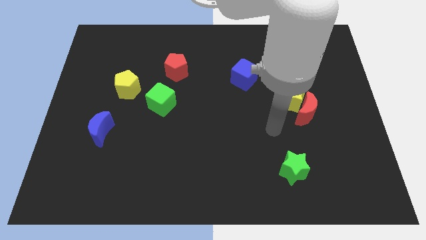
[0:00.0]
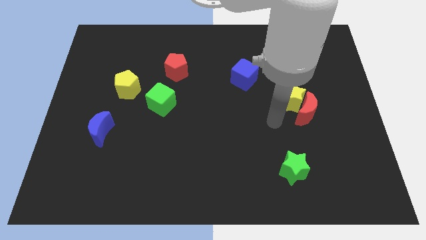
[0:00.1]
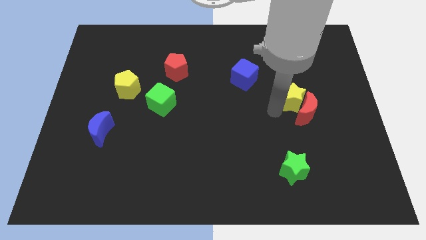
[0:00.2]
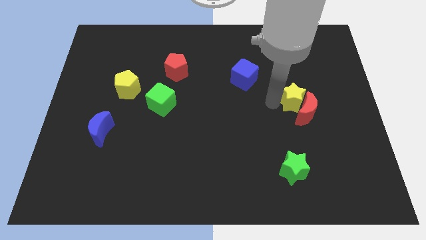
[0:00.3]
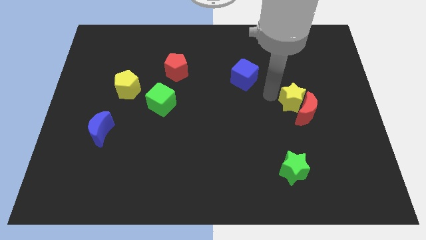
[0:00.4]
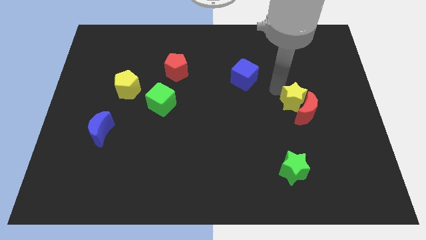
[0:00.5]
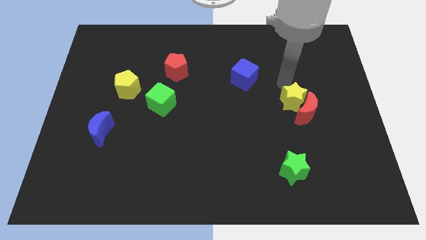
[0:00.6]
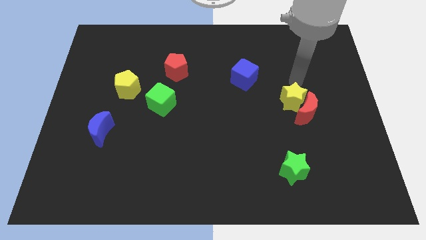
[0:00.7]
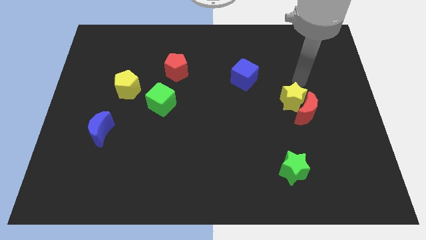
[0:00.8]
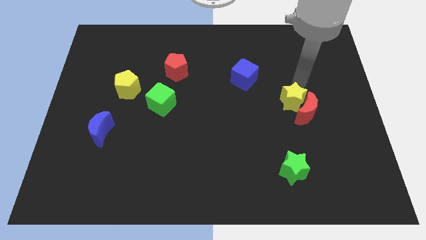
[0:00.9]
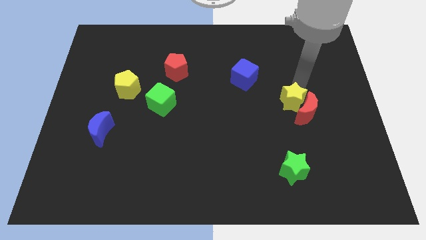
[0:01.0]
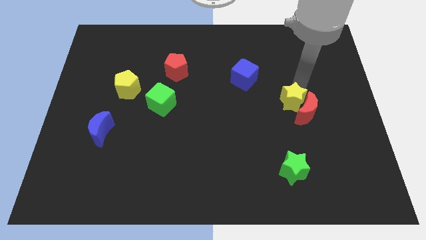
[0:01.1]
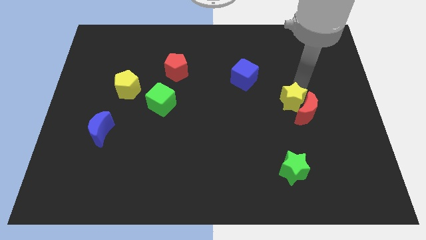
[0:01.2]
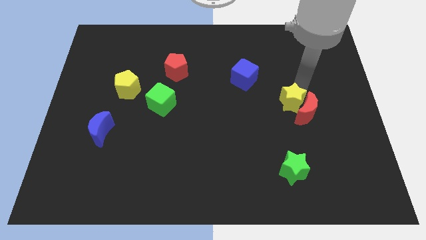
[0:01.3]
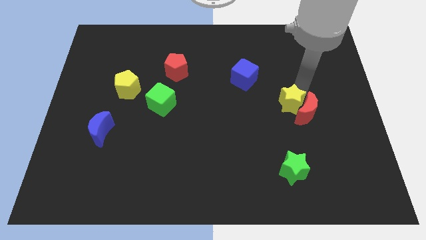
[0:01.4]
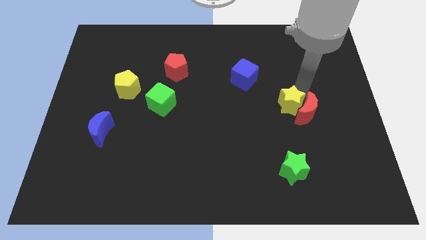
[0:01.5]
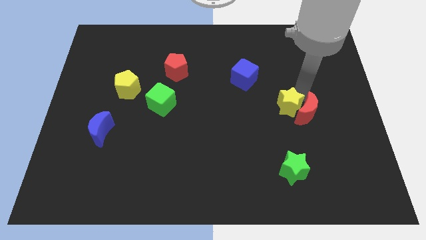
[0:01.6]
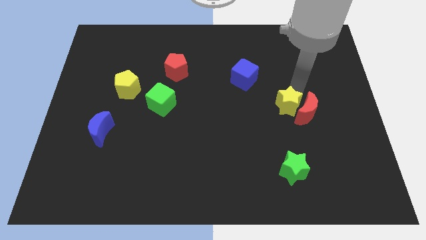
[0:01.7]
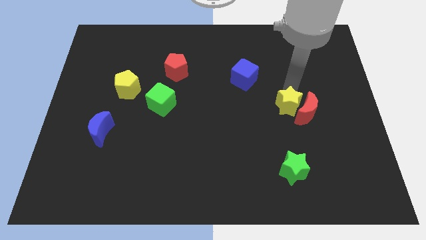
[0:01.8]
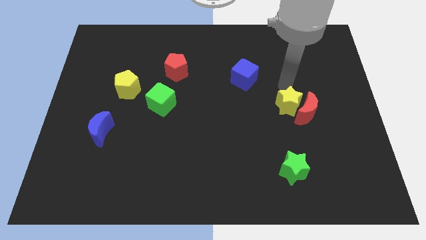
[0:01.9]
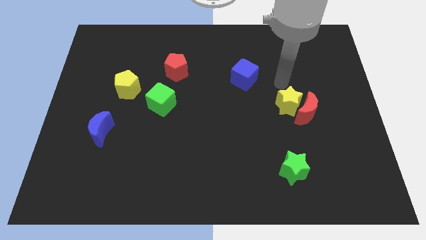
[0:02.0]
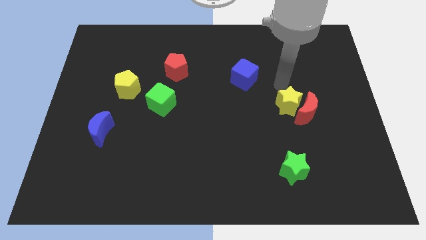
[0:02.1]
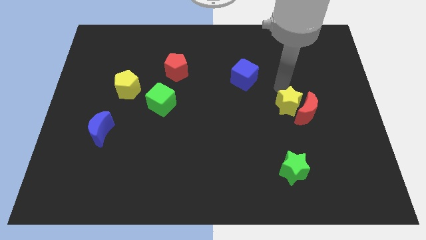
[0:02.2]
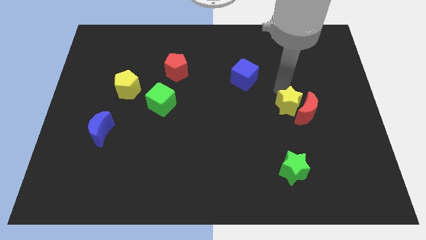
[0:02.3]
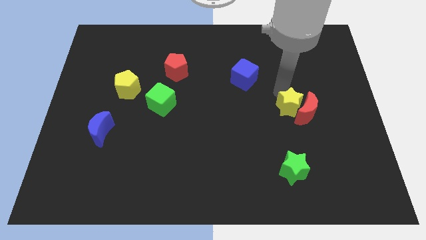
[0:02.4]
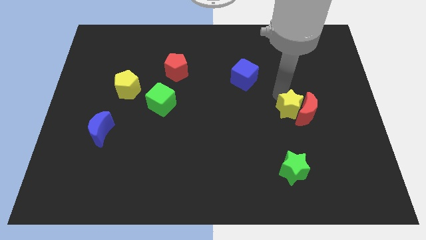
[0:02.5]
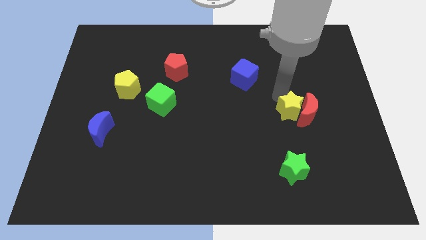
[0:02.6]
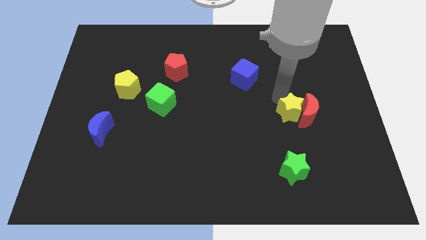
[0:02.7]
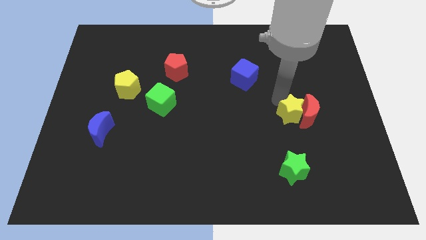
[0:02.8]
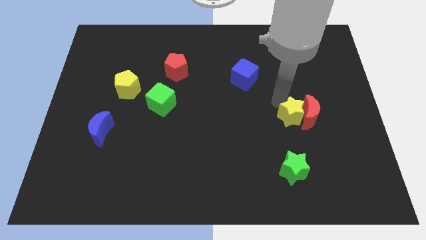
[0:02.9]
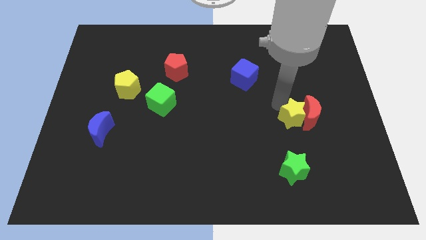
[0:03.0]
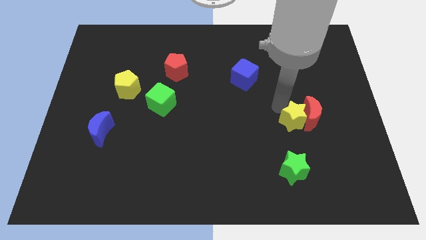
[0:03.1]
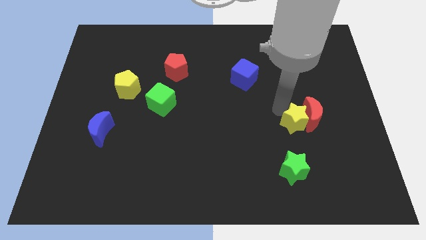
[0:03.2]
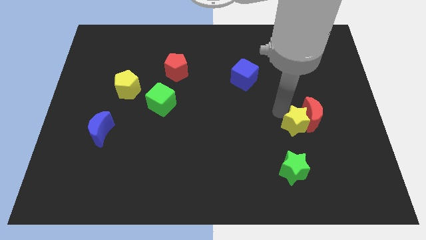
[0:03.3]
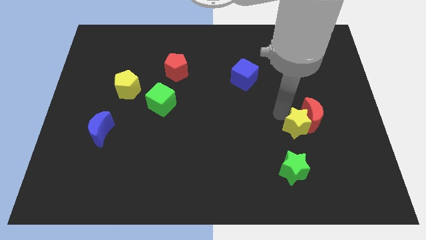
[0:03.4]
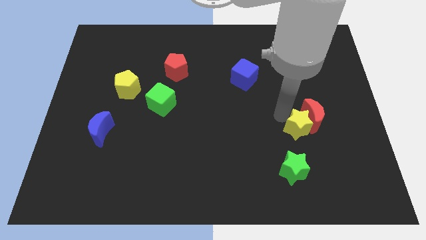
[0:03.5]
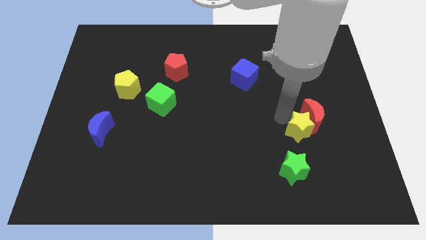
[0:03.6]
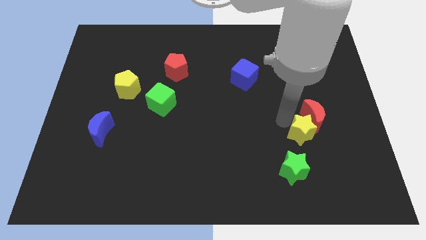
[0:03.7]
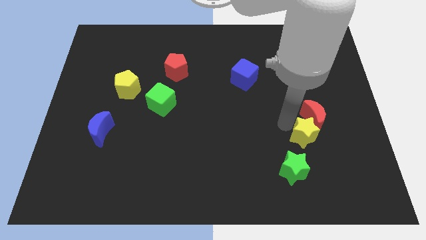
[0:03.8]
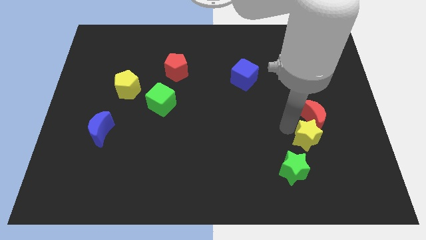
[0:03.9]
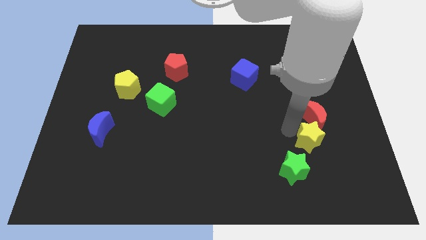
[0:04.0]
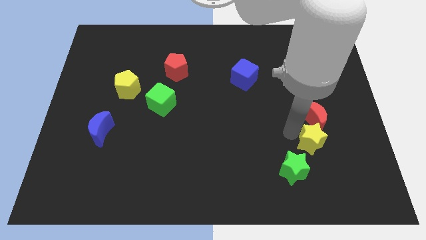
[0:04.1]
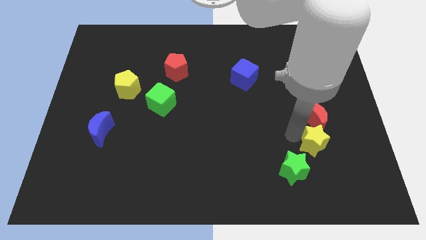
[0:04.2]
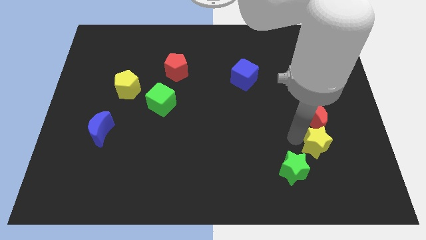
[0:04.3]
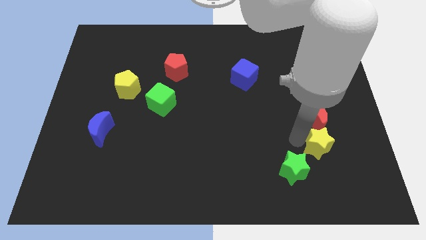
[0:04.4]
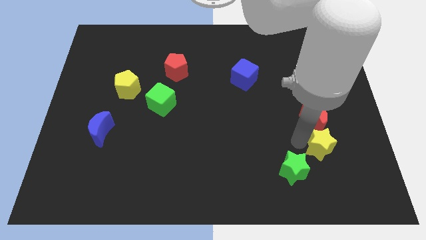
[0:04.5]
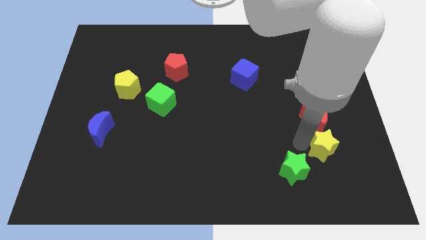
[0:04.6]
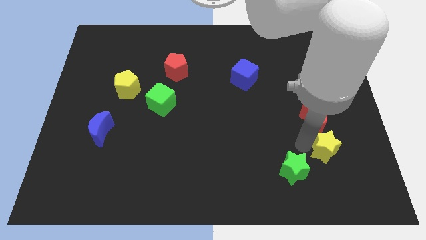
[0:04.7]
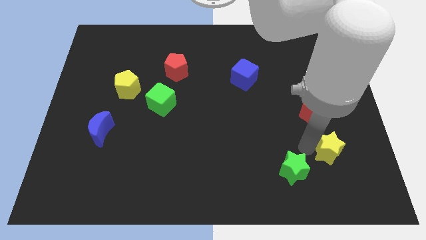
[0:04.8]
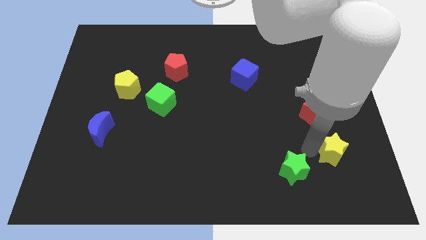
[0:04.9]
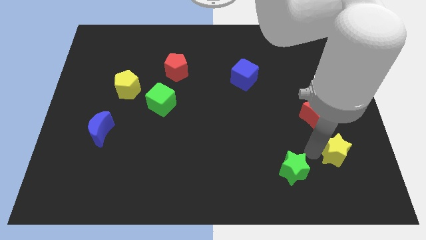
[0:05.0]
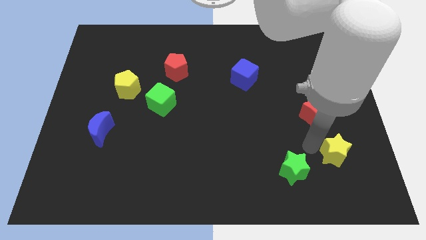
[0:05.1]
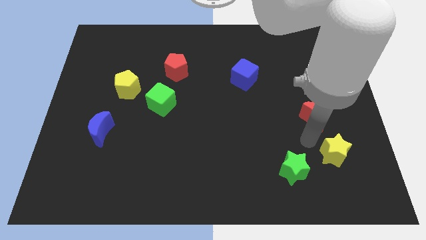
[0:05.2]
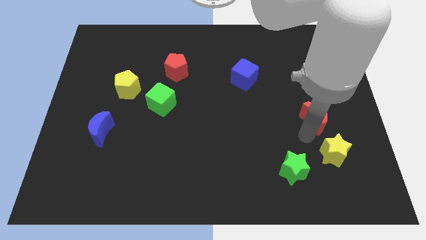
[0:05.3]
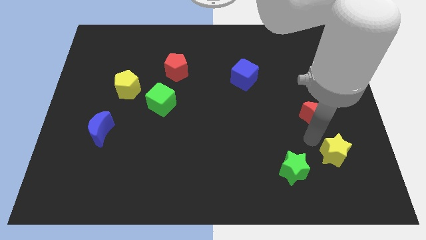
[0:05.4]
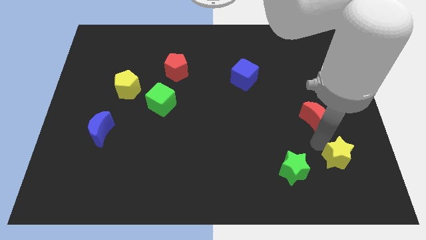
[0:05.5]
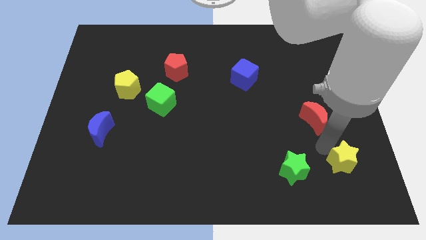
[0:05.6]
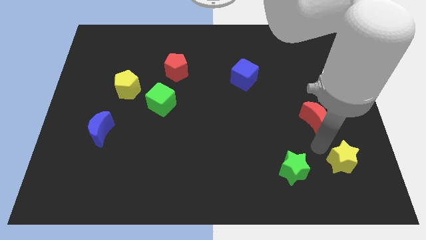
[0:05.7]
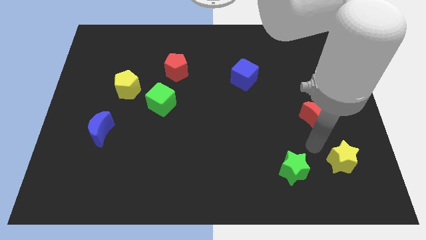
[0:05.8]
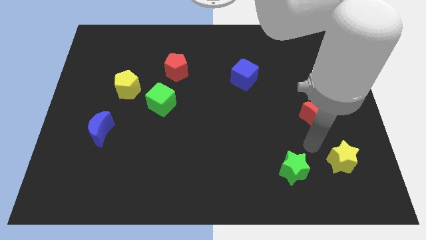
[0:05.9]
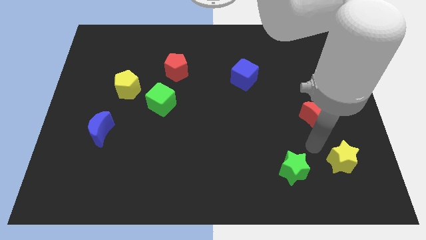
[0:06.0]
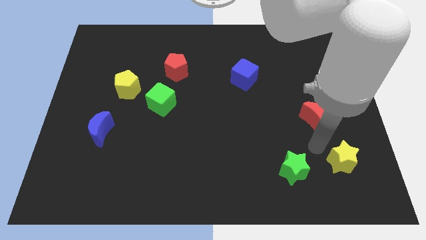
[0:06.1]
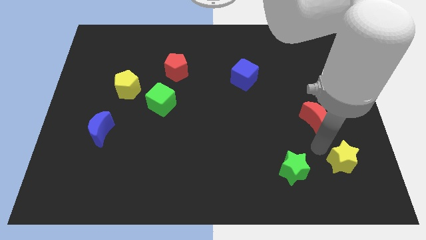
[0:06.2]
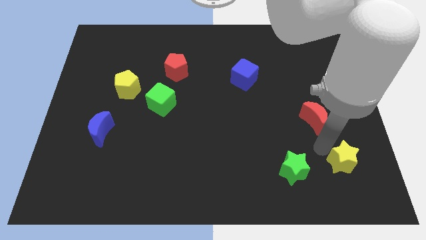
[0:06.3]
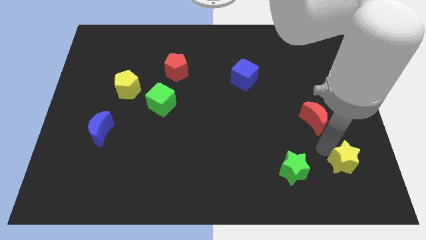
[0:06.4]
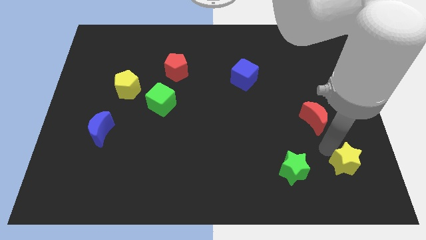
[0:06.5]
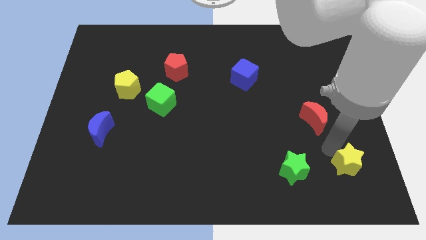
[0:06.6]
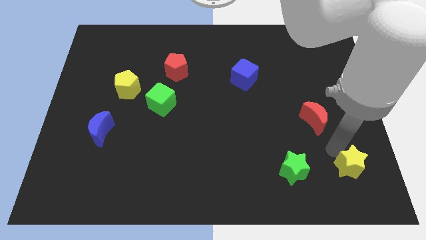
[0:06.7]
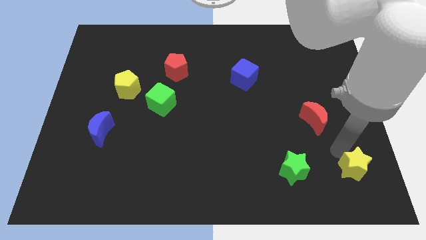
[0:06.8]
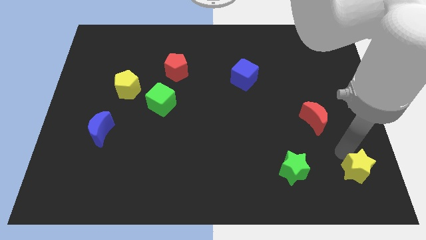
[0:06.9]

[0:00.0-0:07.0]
slide the yellow star to the bottom right
